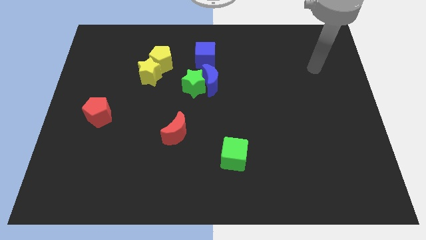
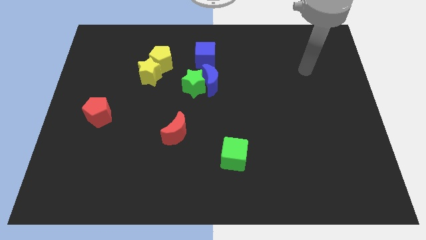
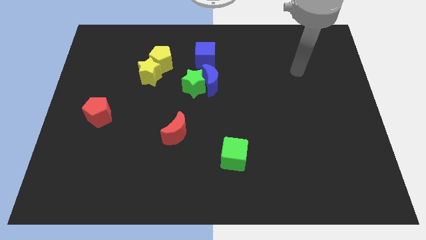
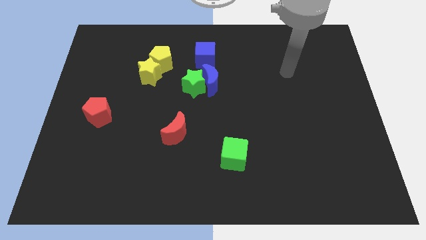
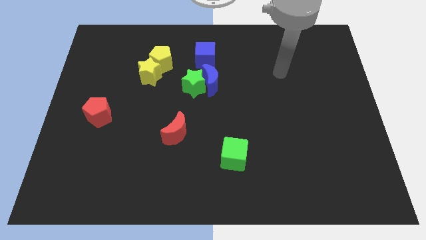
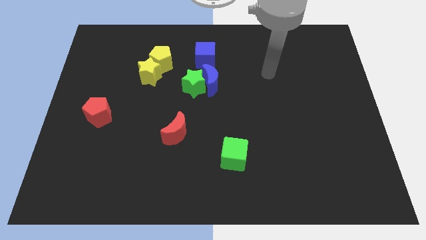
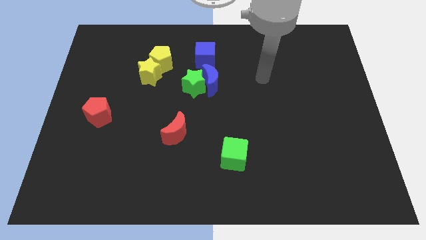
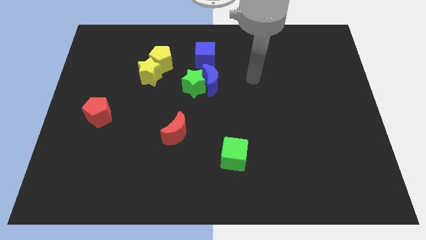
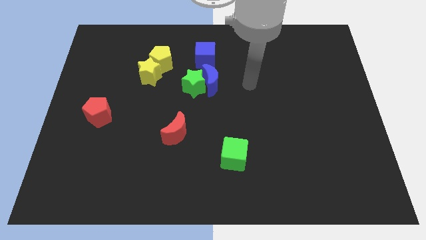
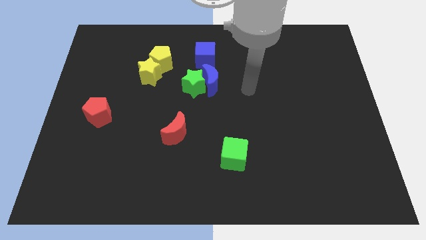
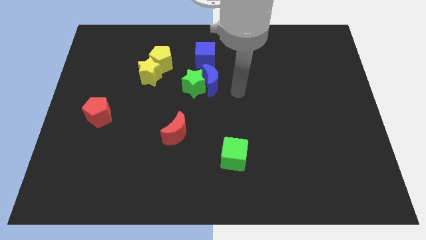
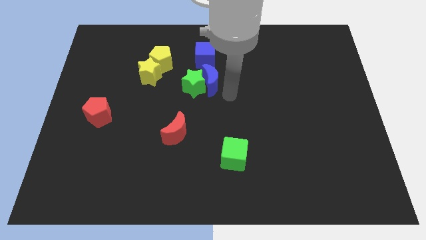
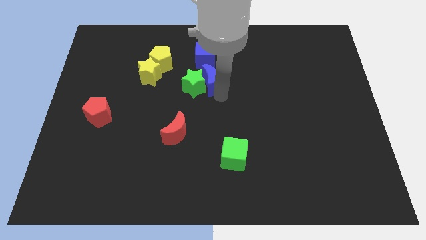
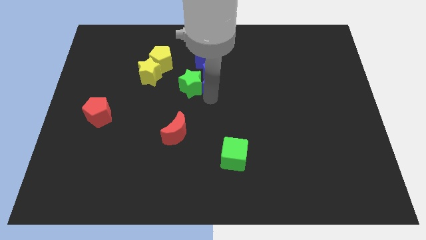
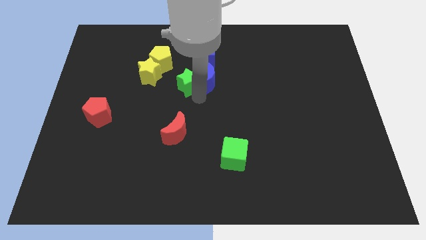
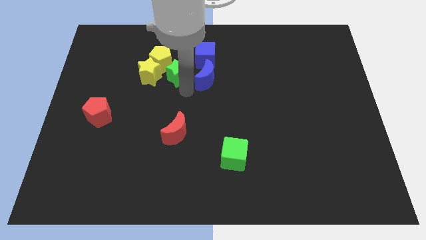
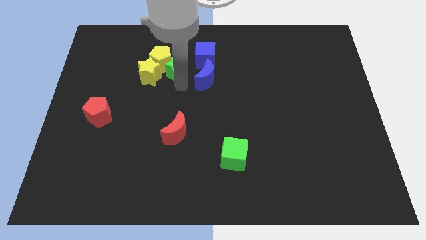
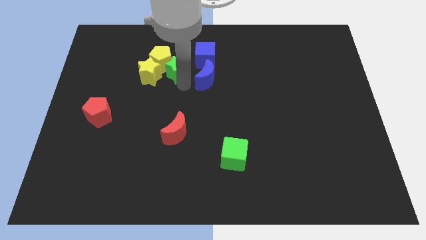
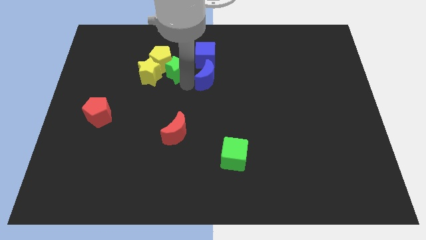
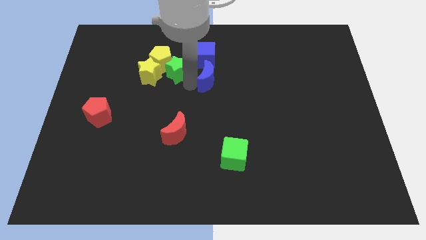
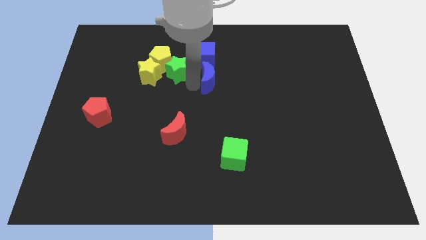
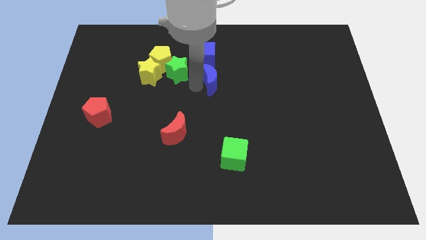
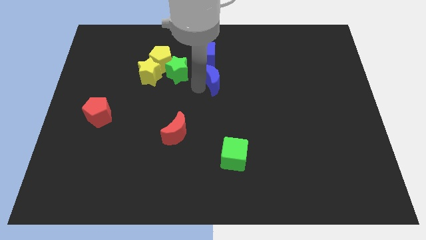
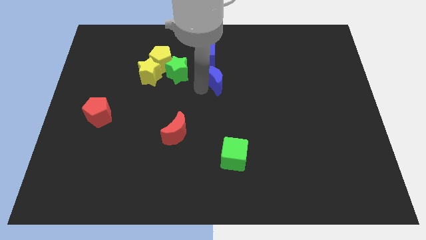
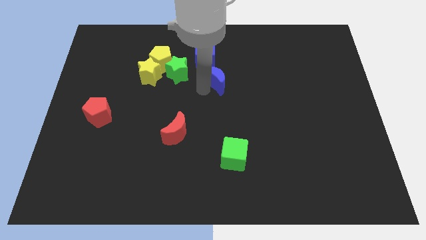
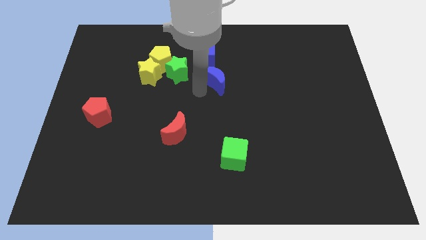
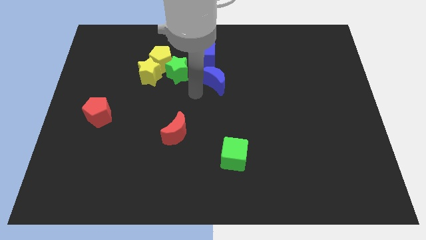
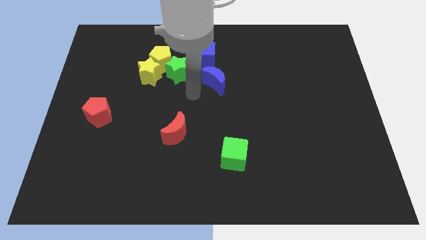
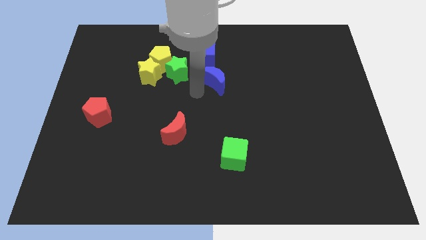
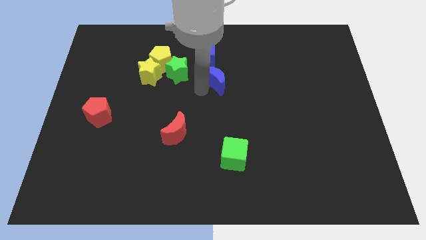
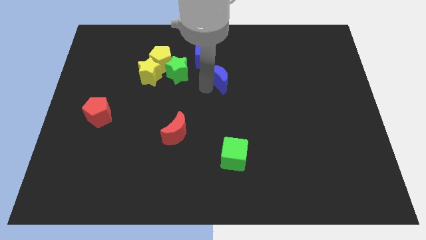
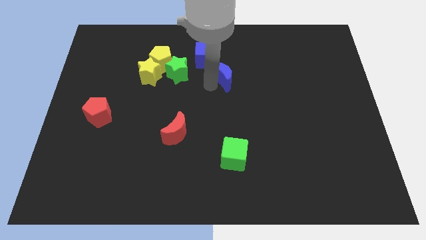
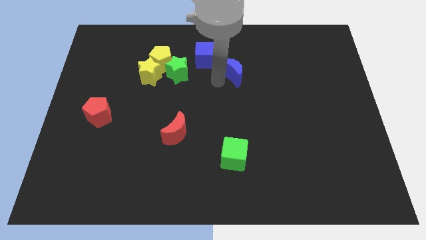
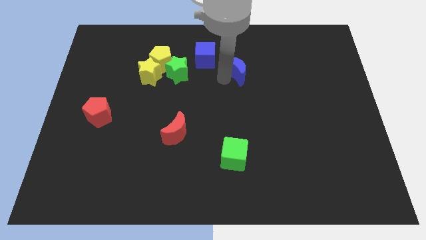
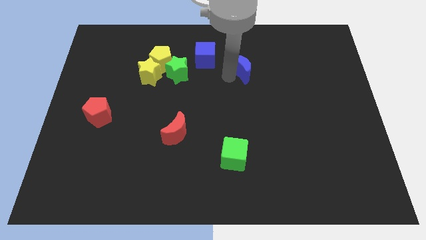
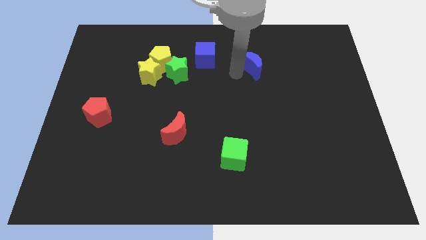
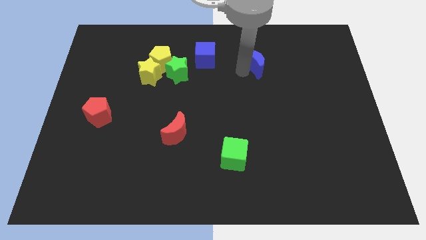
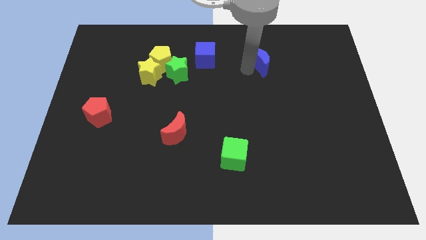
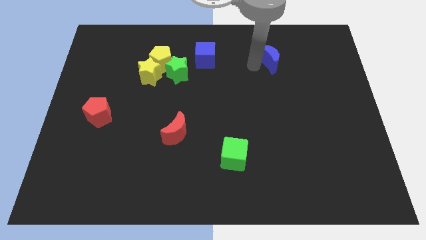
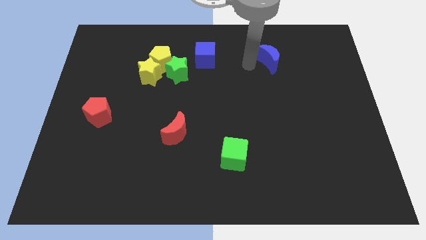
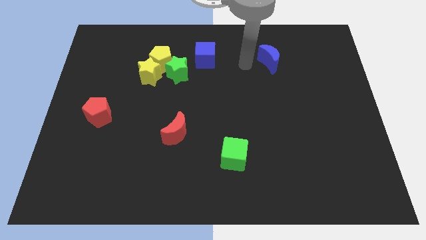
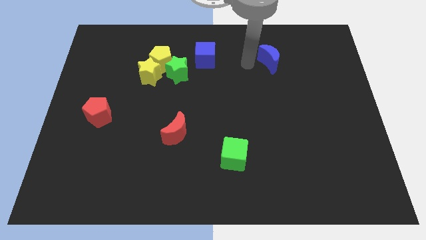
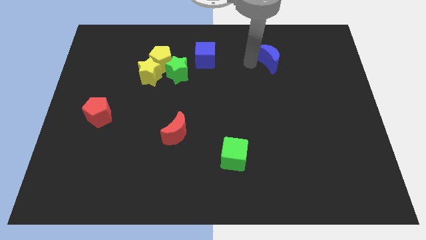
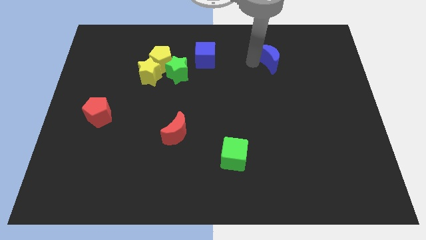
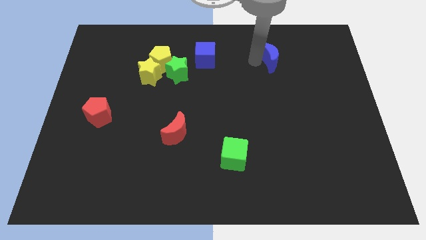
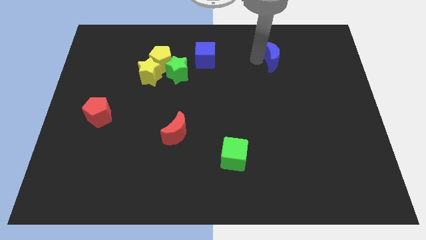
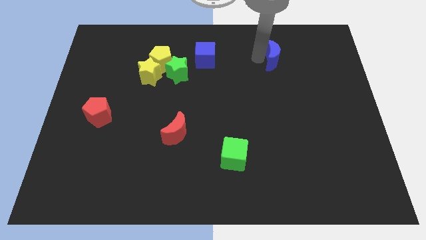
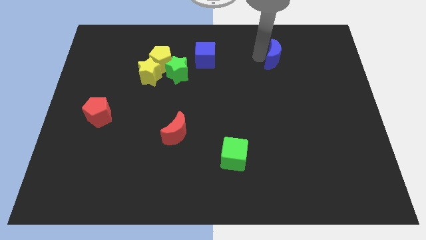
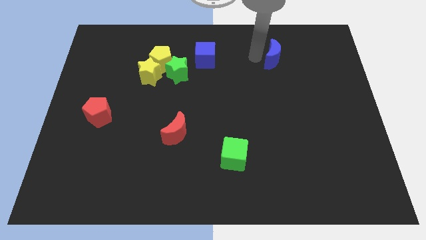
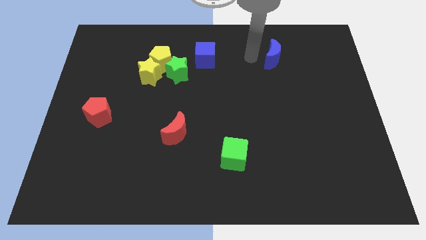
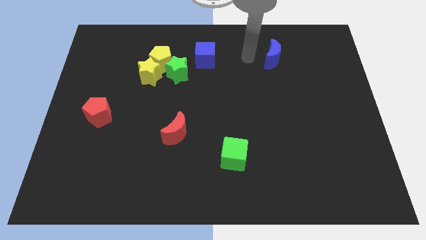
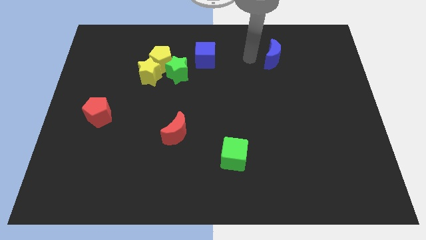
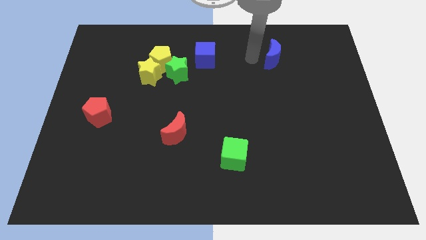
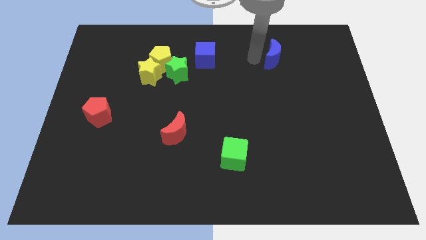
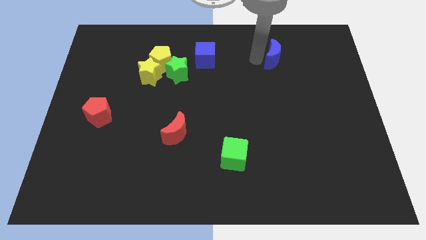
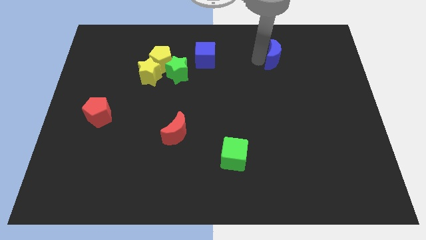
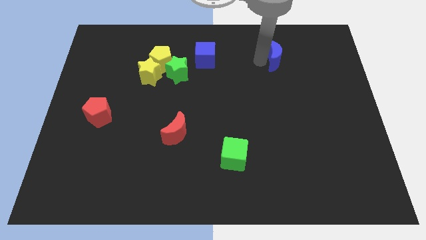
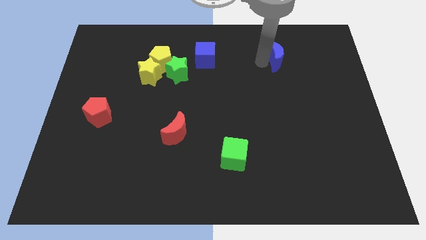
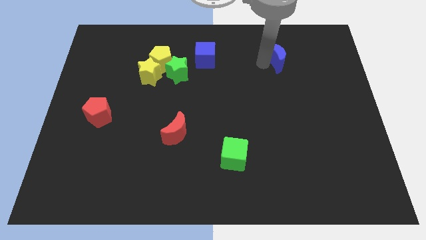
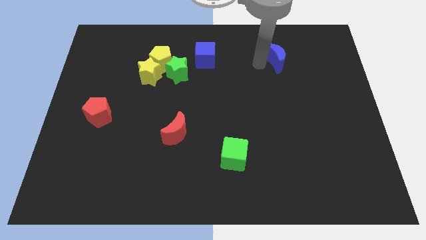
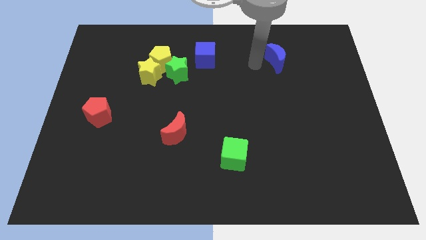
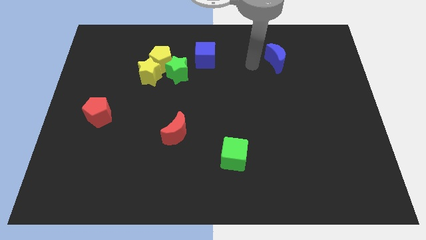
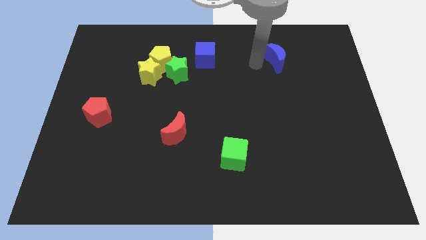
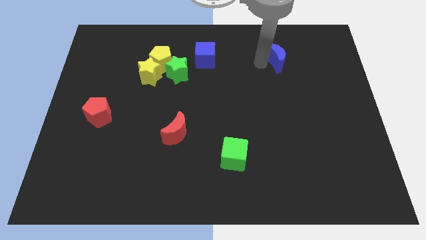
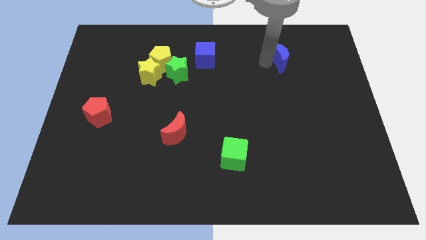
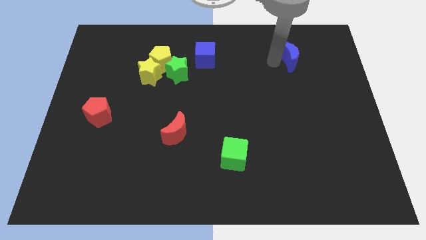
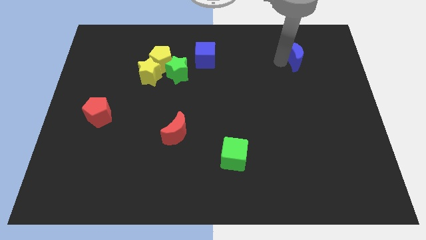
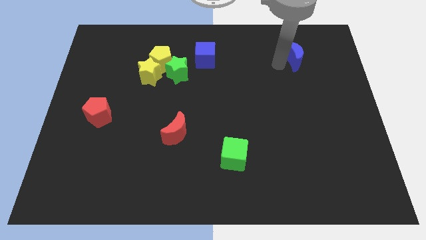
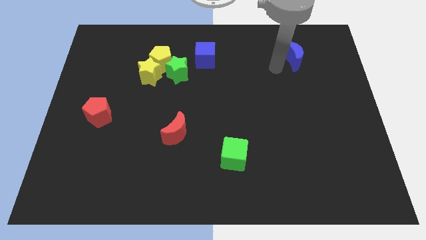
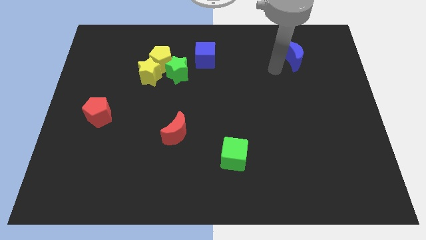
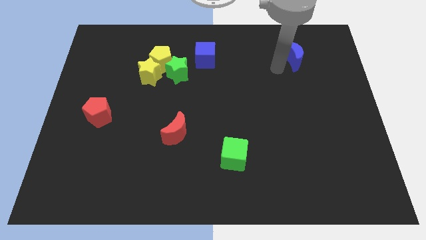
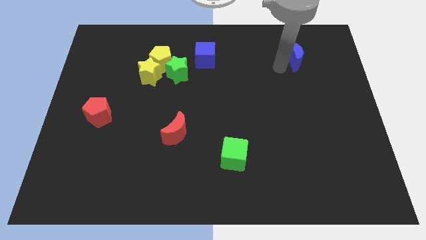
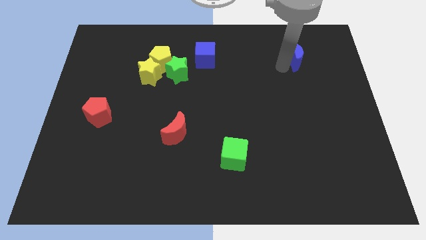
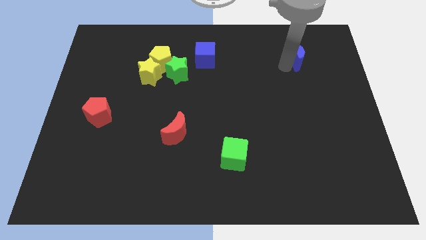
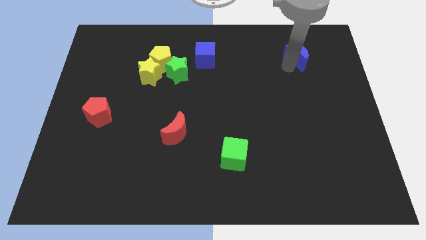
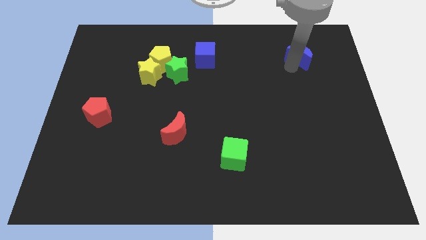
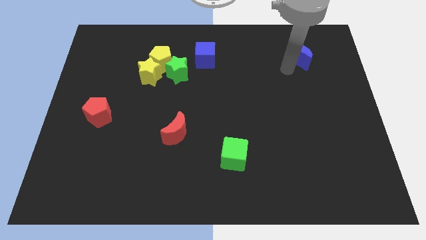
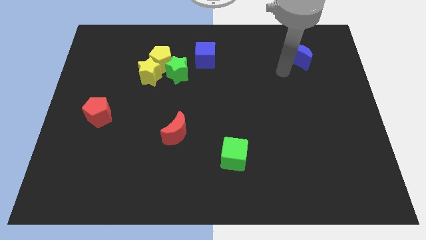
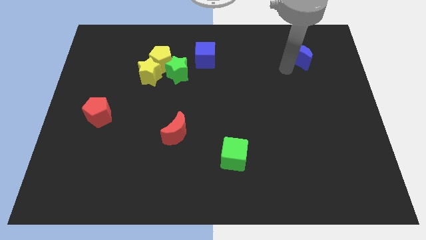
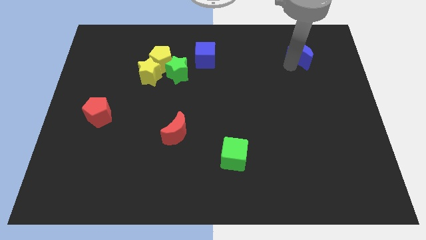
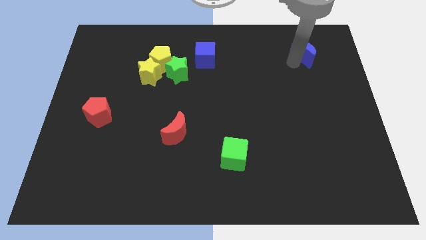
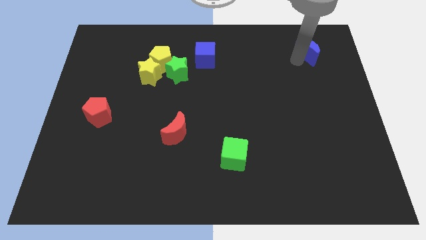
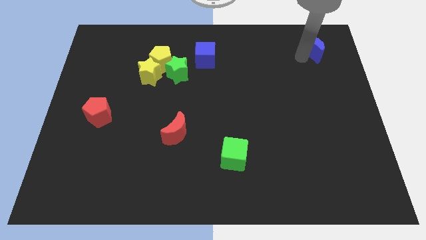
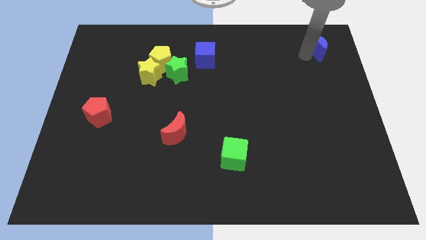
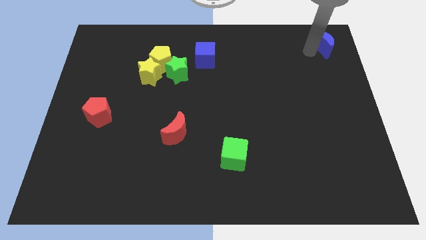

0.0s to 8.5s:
move the blue moon to the upper right corner
